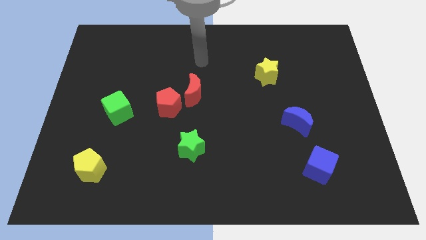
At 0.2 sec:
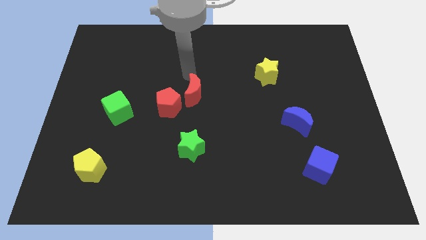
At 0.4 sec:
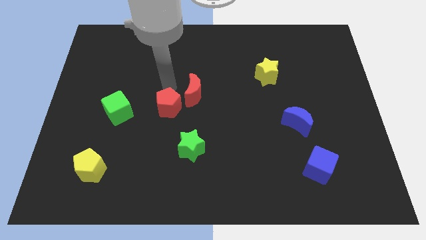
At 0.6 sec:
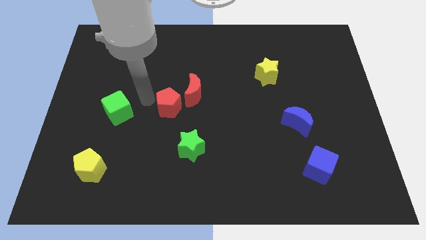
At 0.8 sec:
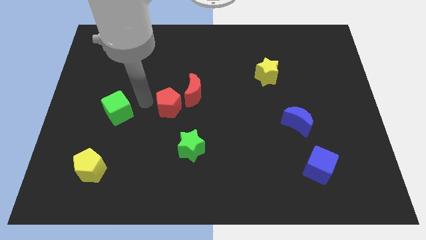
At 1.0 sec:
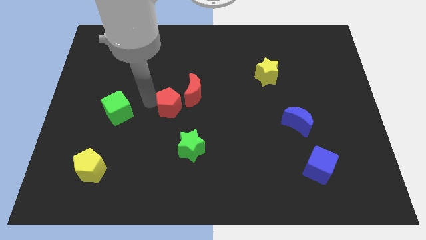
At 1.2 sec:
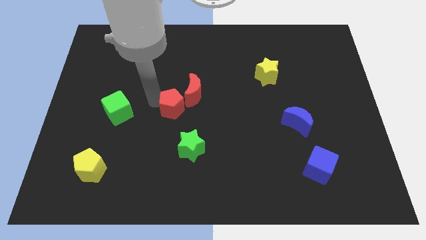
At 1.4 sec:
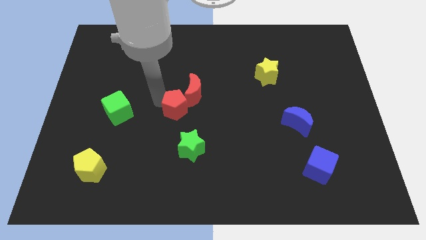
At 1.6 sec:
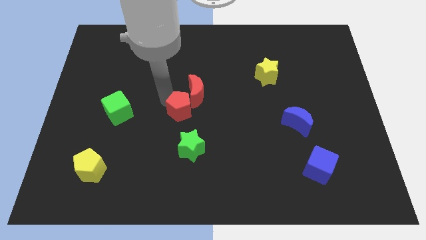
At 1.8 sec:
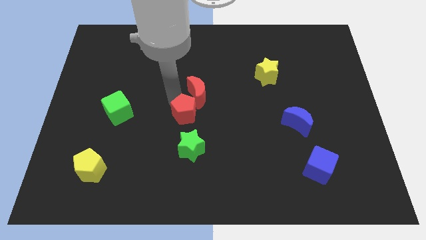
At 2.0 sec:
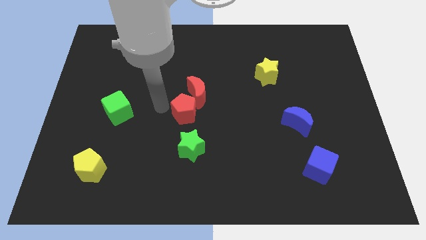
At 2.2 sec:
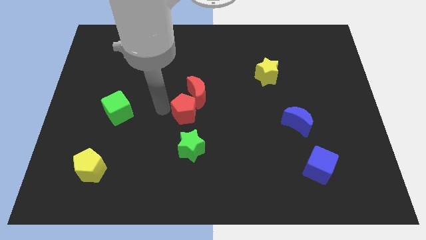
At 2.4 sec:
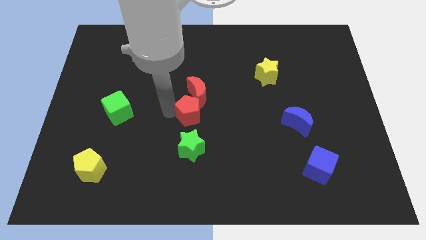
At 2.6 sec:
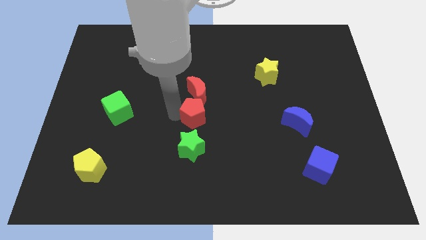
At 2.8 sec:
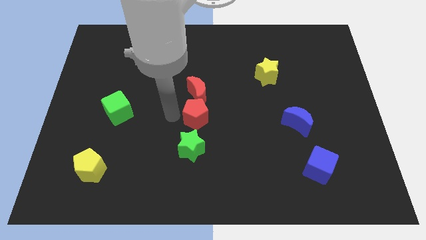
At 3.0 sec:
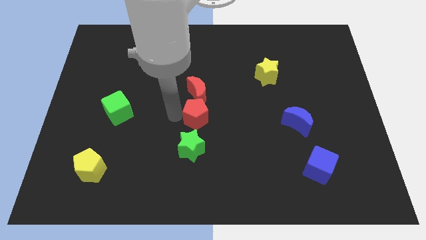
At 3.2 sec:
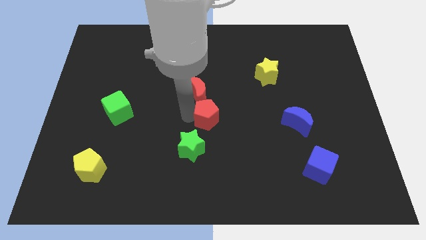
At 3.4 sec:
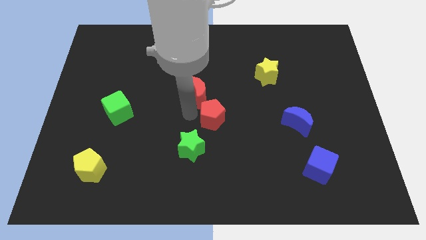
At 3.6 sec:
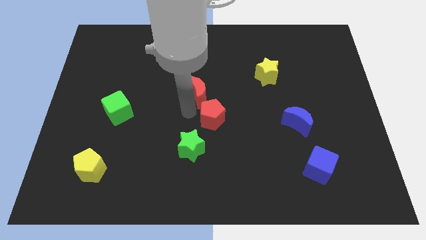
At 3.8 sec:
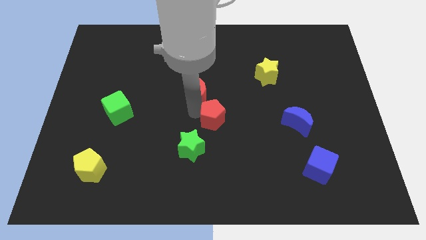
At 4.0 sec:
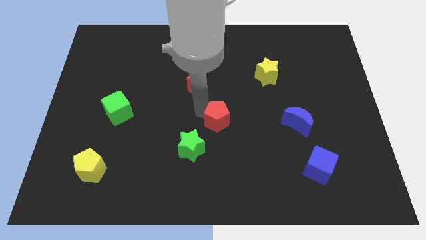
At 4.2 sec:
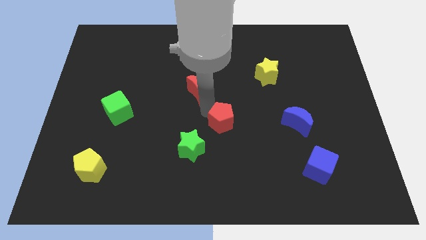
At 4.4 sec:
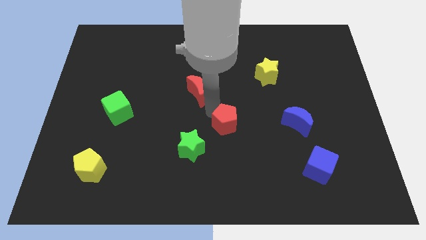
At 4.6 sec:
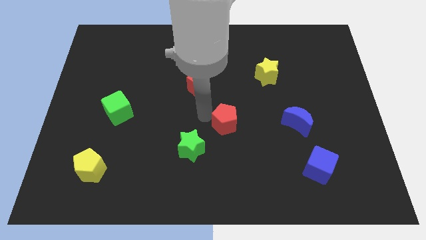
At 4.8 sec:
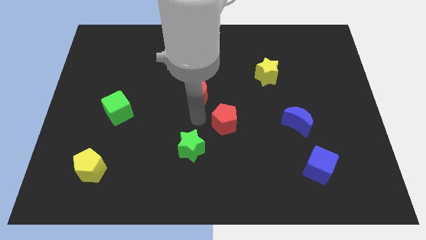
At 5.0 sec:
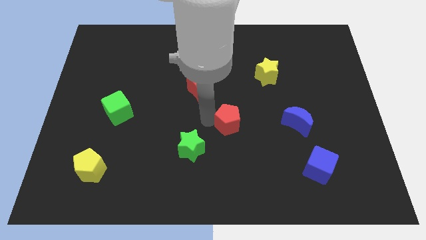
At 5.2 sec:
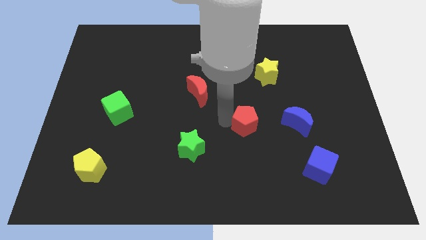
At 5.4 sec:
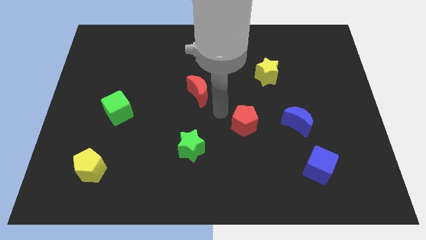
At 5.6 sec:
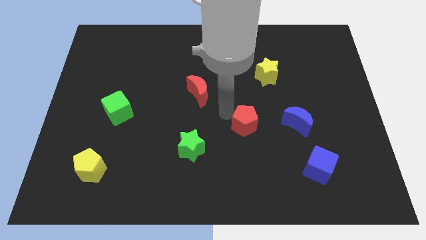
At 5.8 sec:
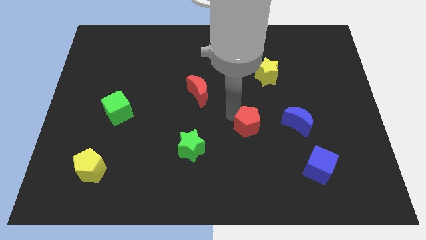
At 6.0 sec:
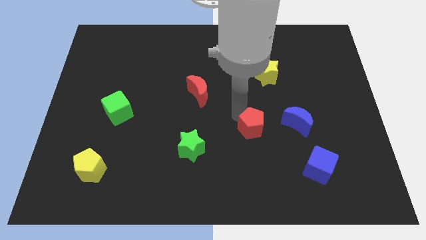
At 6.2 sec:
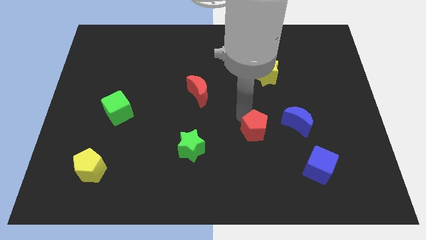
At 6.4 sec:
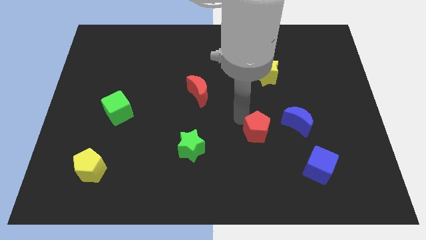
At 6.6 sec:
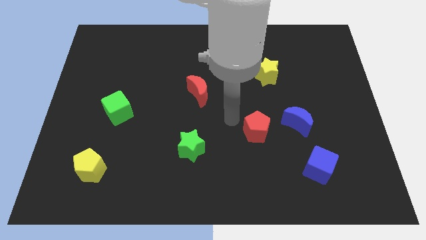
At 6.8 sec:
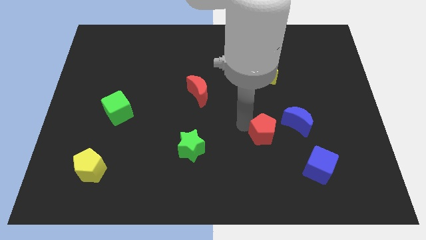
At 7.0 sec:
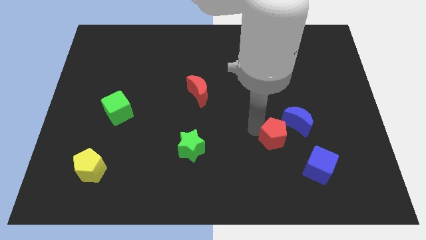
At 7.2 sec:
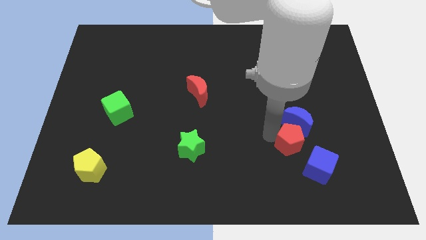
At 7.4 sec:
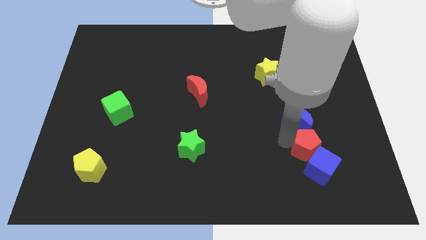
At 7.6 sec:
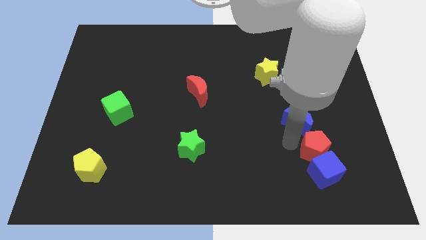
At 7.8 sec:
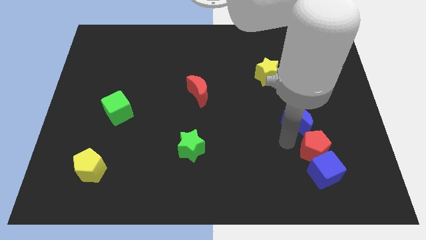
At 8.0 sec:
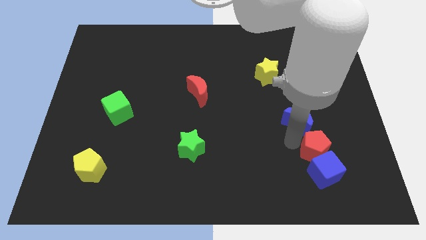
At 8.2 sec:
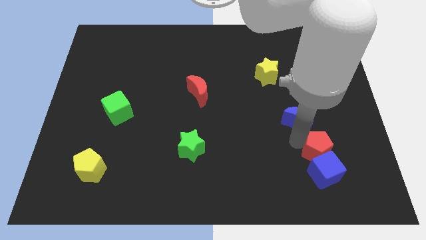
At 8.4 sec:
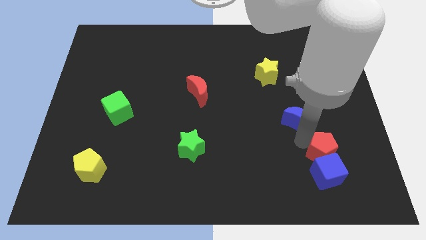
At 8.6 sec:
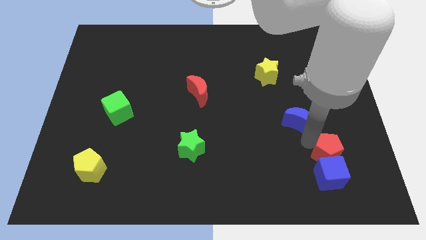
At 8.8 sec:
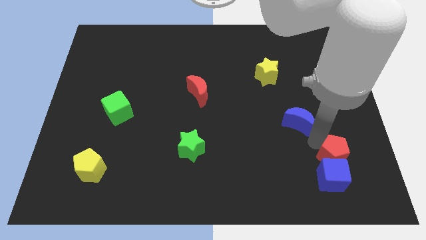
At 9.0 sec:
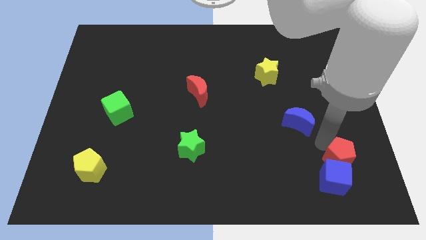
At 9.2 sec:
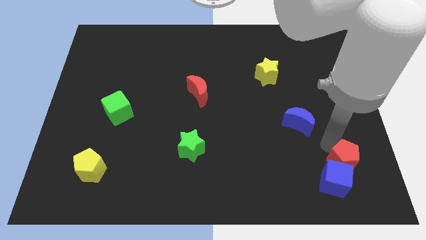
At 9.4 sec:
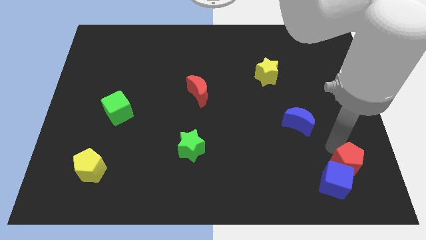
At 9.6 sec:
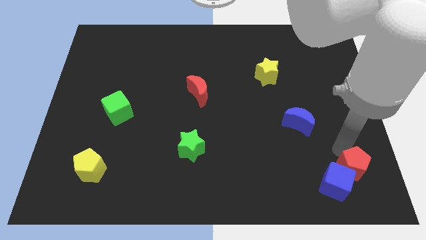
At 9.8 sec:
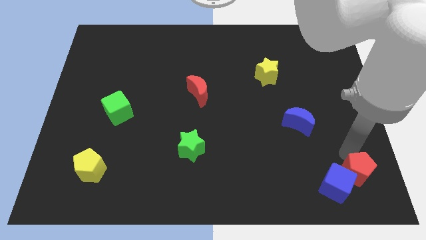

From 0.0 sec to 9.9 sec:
push the red pentagon to the bottom right corner

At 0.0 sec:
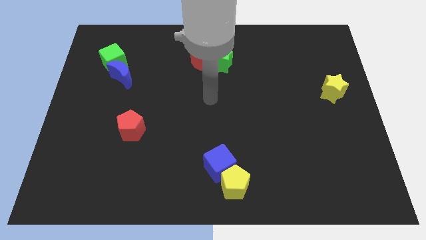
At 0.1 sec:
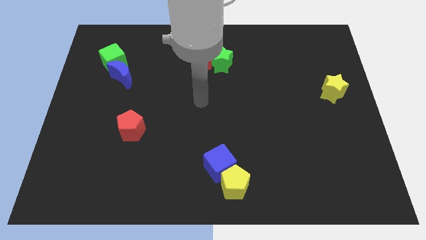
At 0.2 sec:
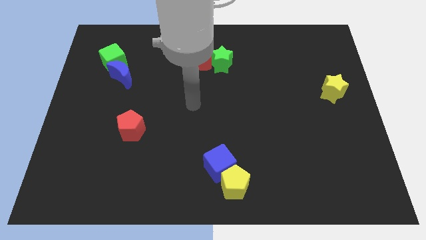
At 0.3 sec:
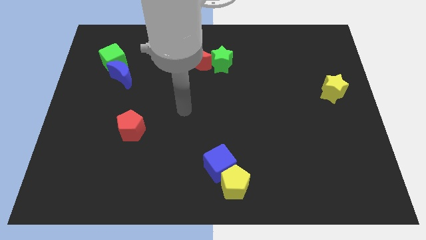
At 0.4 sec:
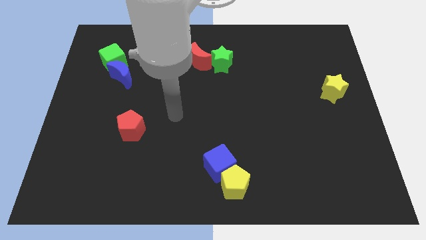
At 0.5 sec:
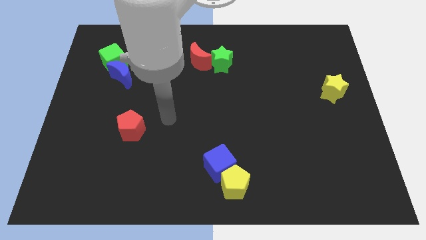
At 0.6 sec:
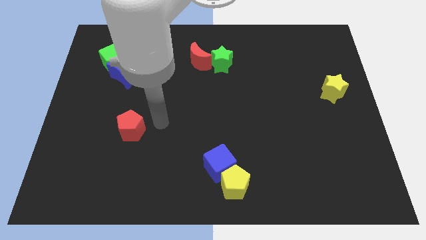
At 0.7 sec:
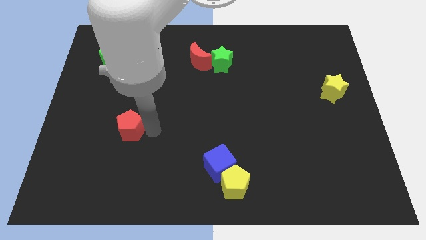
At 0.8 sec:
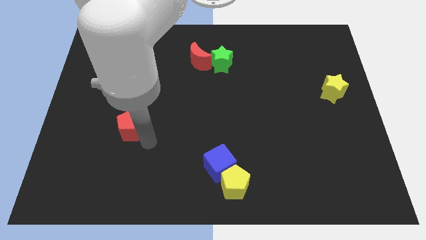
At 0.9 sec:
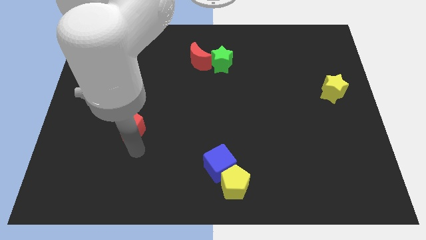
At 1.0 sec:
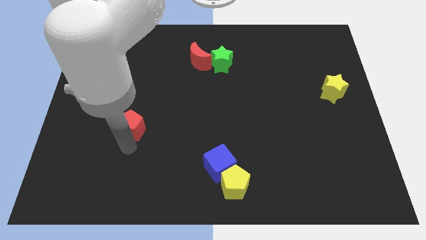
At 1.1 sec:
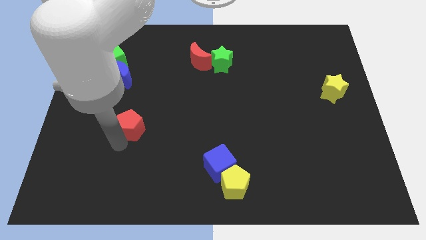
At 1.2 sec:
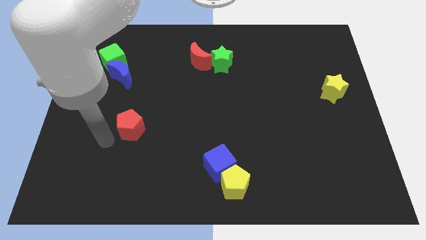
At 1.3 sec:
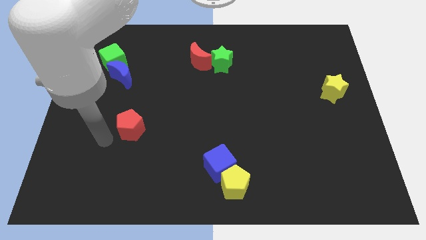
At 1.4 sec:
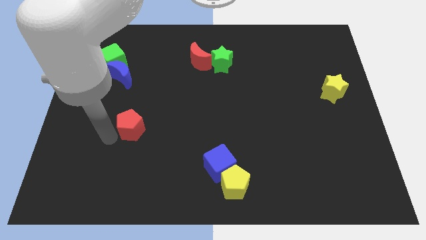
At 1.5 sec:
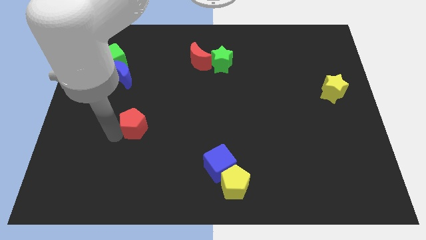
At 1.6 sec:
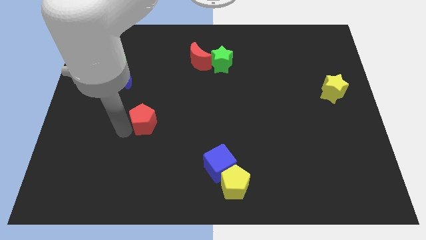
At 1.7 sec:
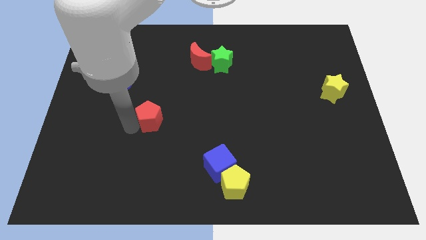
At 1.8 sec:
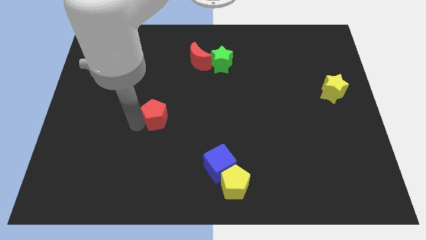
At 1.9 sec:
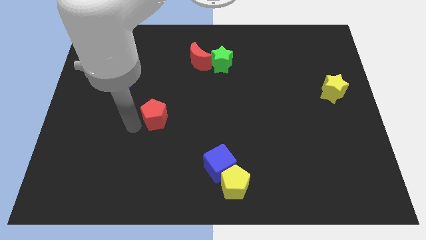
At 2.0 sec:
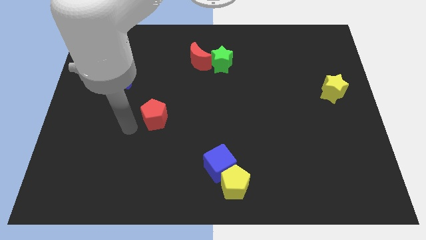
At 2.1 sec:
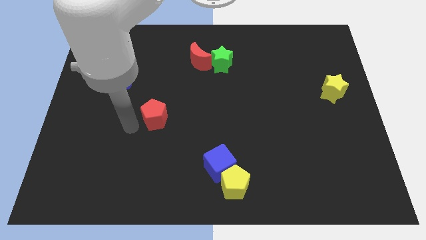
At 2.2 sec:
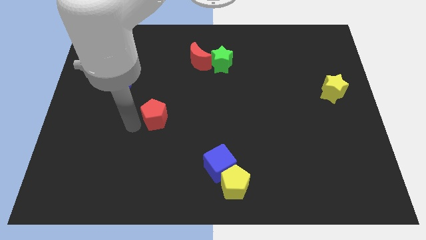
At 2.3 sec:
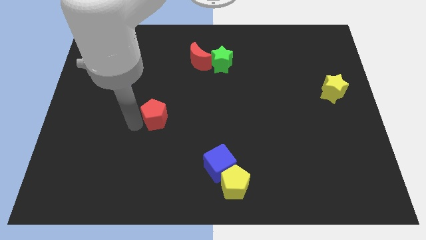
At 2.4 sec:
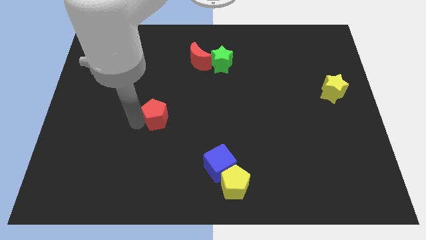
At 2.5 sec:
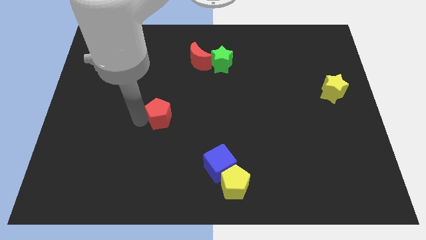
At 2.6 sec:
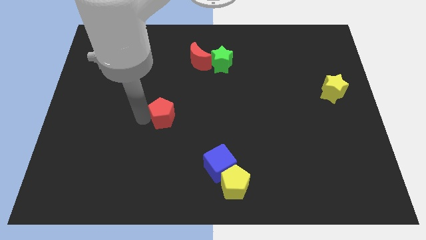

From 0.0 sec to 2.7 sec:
slide the red pentagon to the middle of the board
